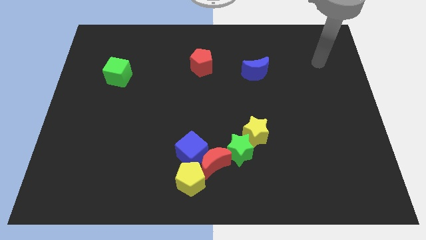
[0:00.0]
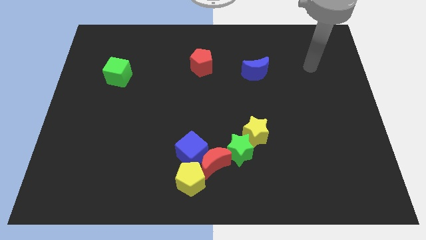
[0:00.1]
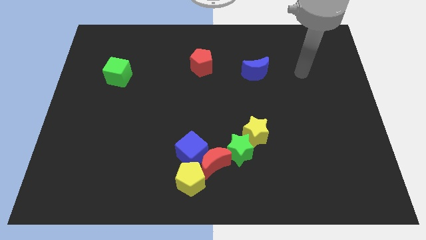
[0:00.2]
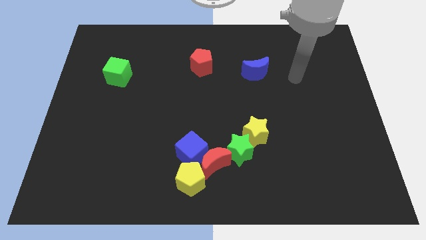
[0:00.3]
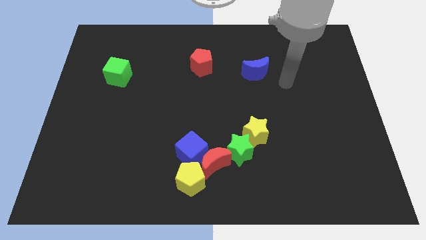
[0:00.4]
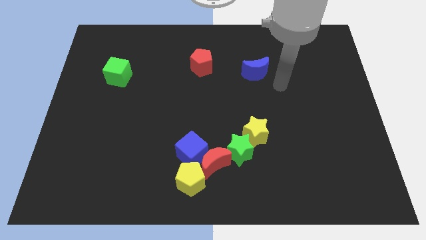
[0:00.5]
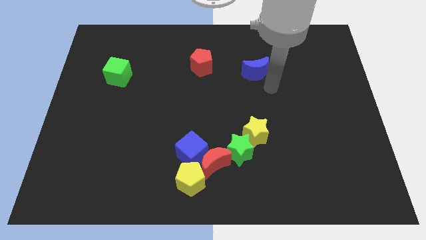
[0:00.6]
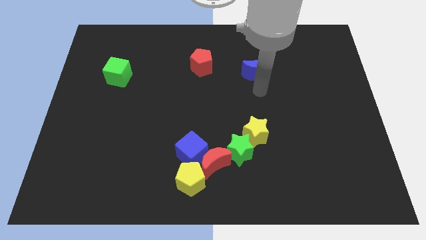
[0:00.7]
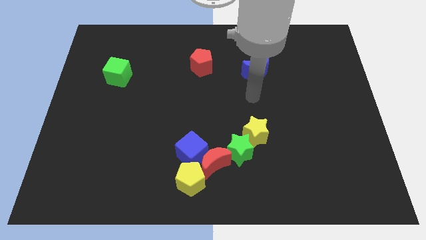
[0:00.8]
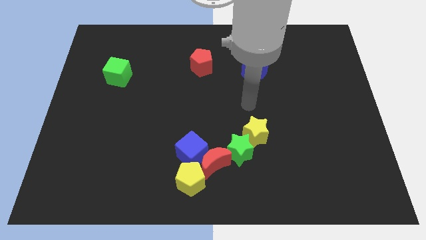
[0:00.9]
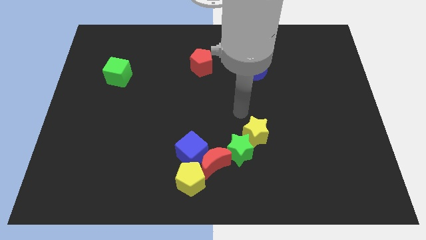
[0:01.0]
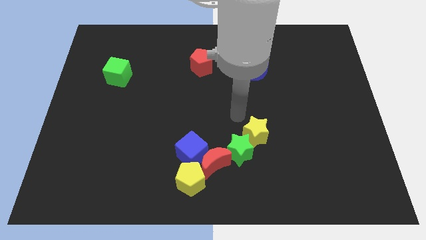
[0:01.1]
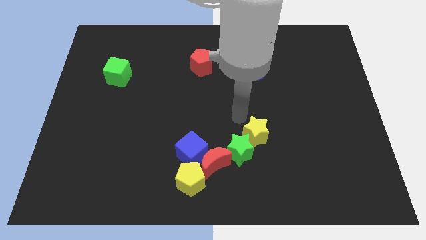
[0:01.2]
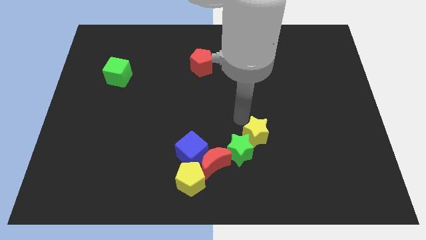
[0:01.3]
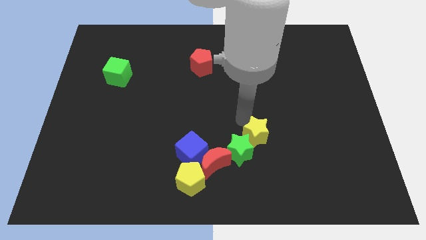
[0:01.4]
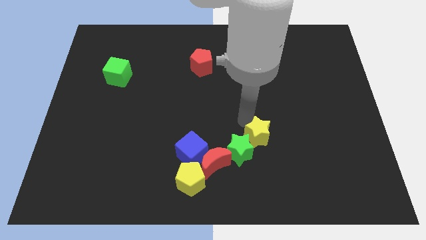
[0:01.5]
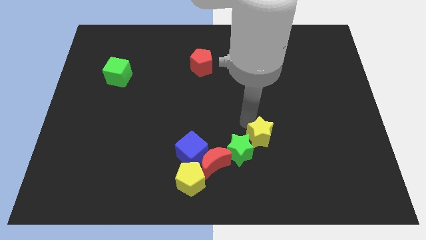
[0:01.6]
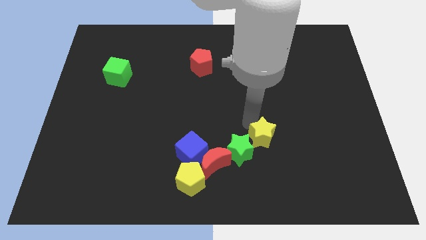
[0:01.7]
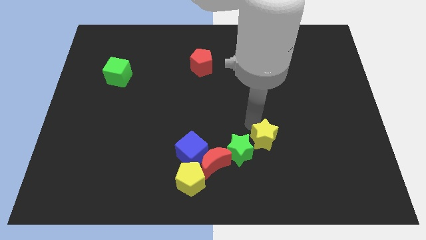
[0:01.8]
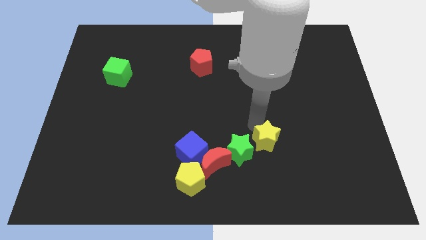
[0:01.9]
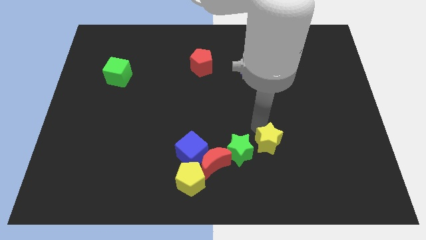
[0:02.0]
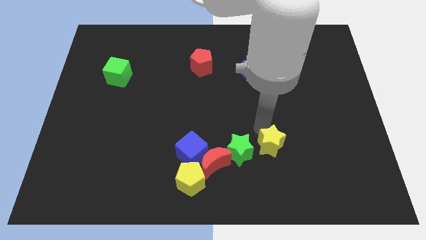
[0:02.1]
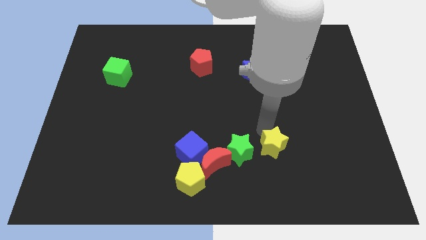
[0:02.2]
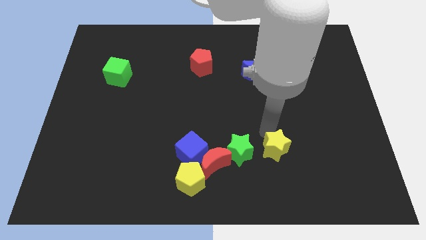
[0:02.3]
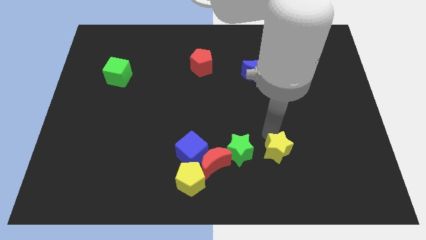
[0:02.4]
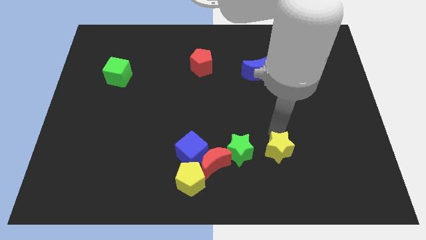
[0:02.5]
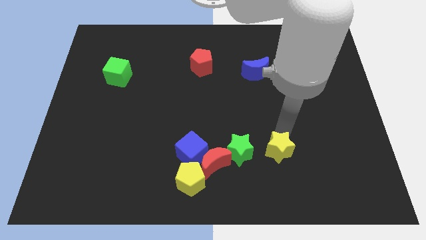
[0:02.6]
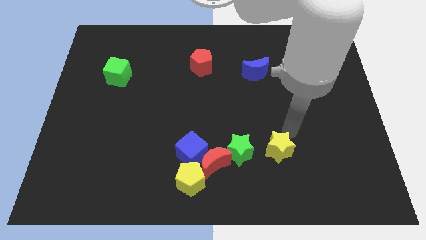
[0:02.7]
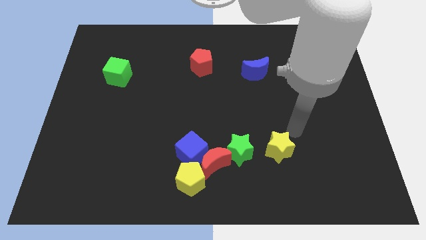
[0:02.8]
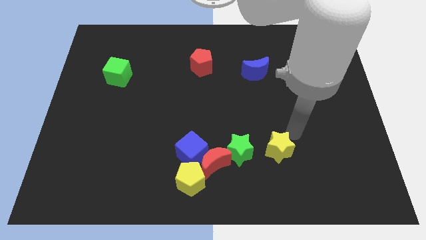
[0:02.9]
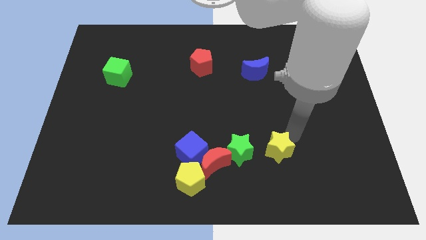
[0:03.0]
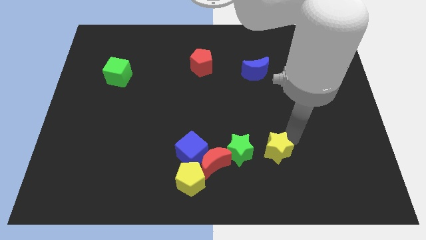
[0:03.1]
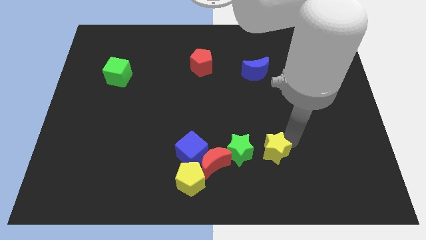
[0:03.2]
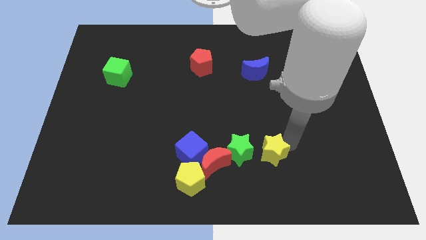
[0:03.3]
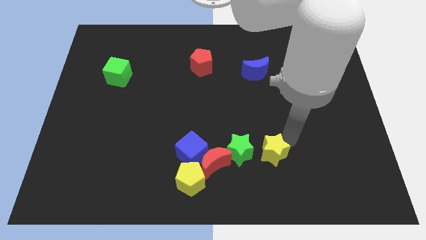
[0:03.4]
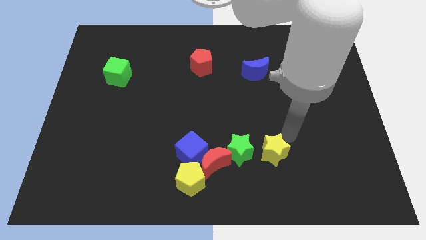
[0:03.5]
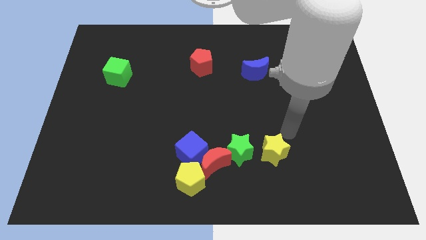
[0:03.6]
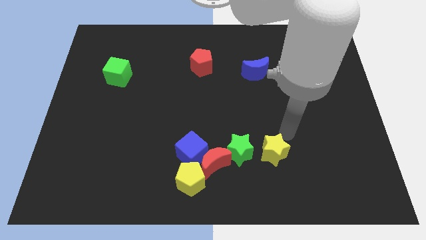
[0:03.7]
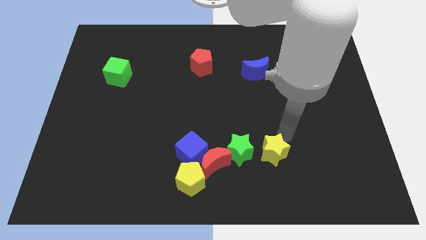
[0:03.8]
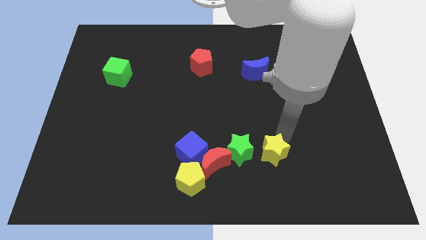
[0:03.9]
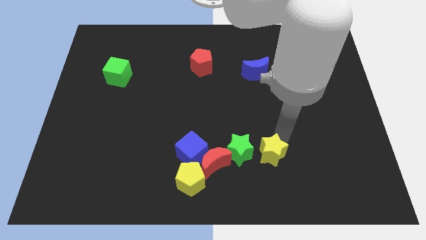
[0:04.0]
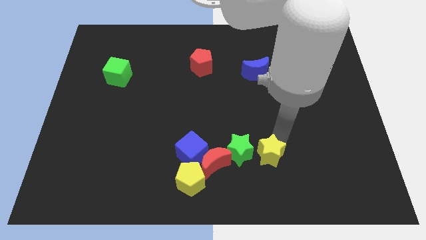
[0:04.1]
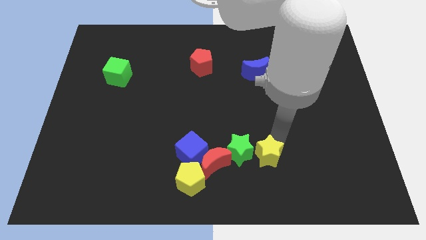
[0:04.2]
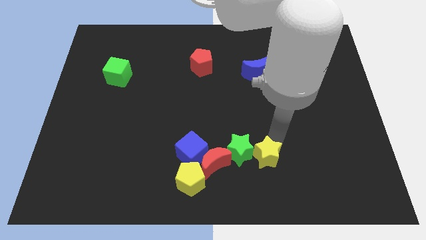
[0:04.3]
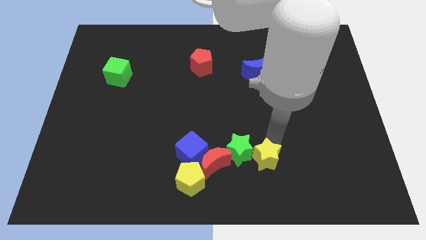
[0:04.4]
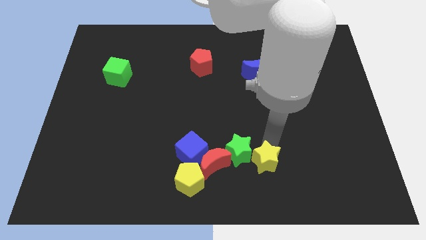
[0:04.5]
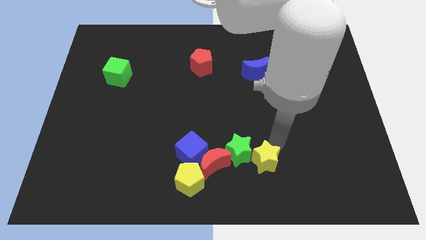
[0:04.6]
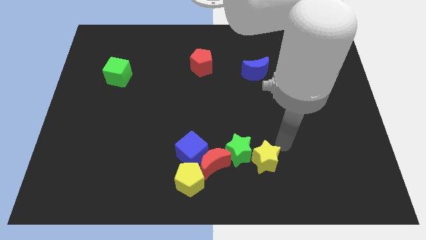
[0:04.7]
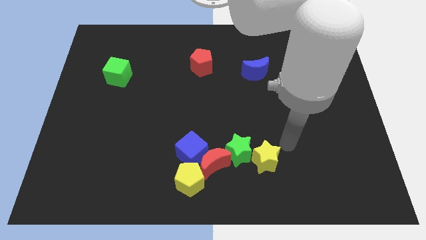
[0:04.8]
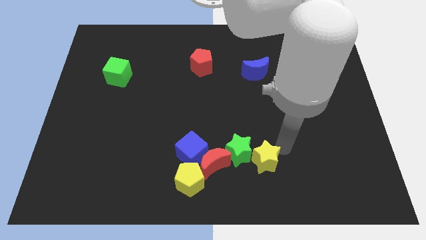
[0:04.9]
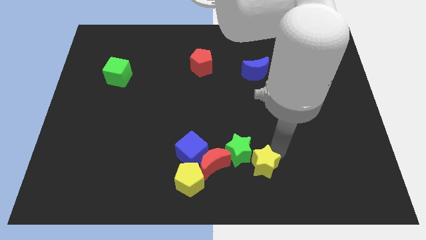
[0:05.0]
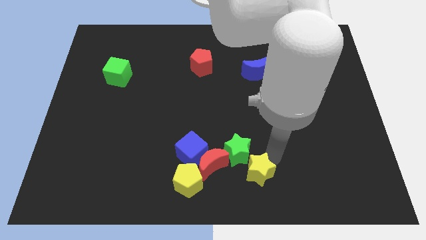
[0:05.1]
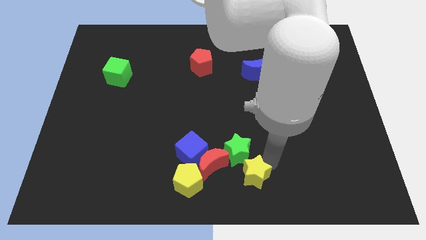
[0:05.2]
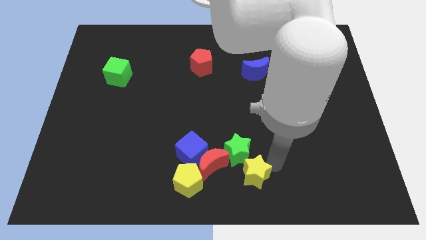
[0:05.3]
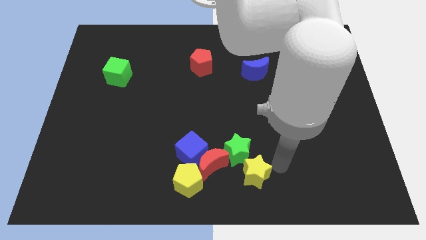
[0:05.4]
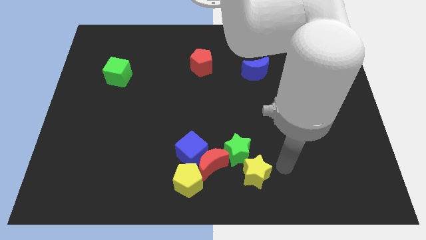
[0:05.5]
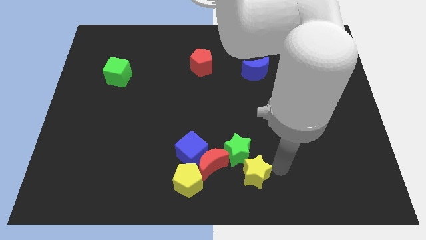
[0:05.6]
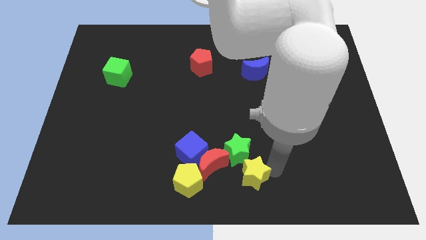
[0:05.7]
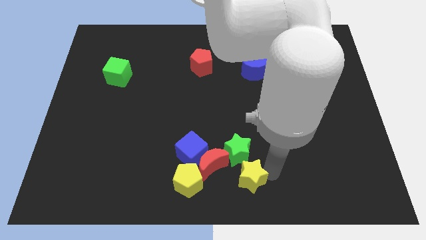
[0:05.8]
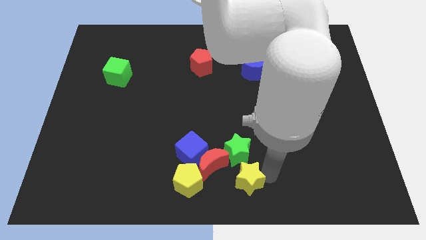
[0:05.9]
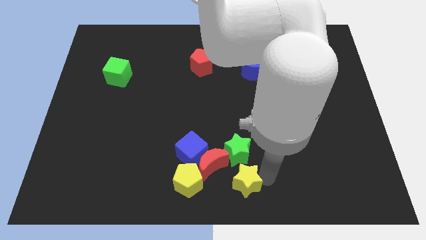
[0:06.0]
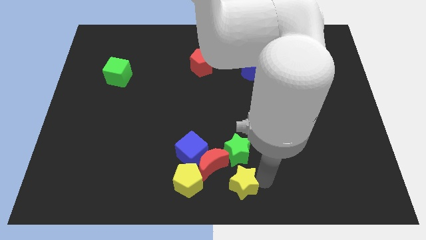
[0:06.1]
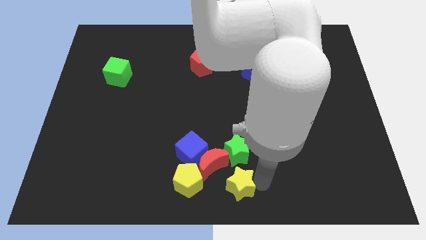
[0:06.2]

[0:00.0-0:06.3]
move the yellow star diagonally down and to the right of the blue cube

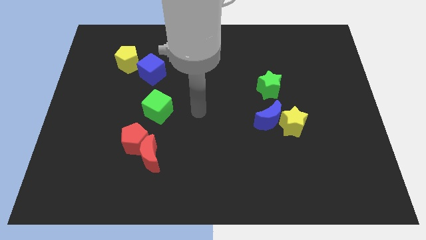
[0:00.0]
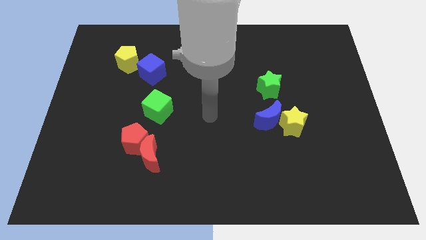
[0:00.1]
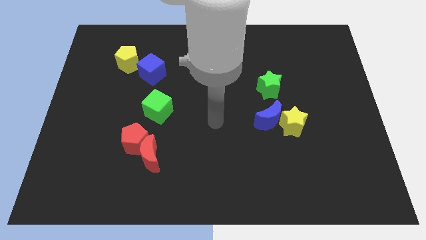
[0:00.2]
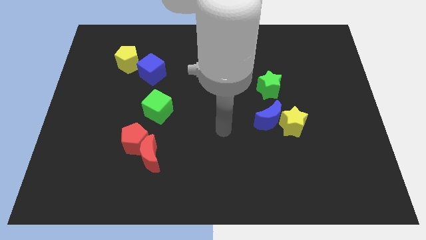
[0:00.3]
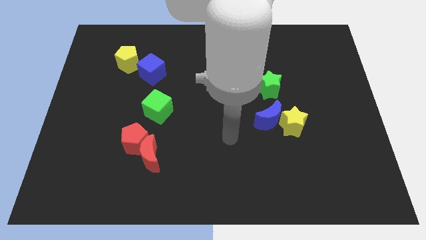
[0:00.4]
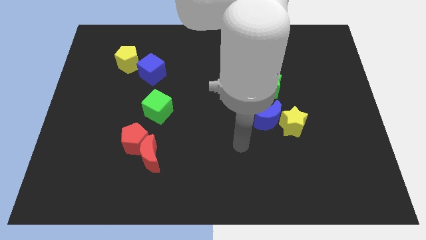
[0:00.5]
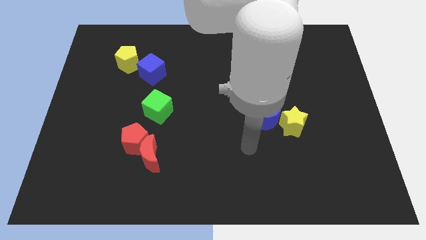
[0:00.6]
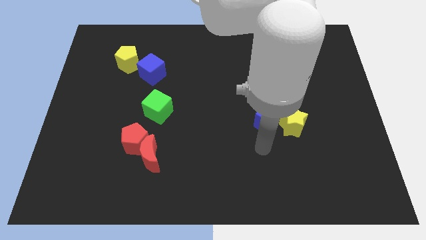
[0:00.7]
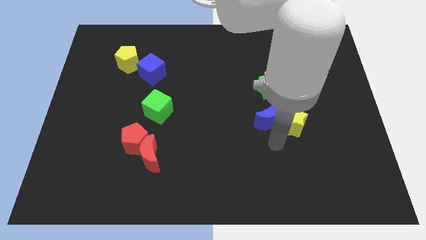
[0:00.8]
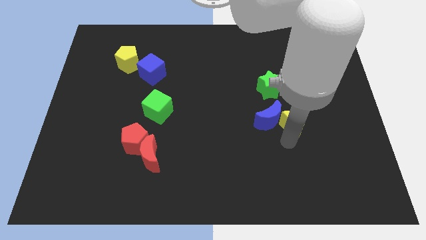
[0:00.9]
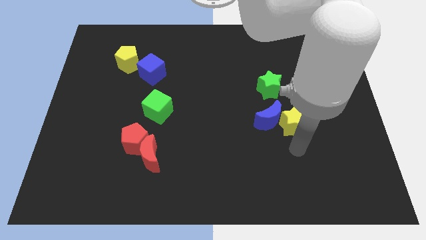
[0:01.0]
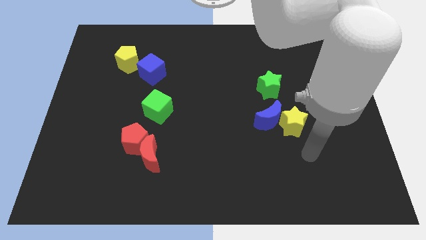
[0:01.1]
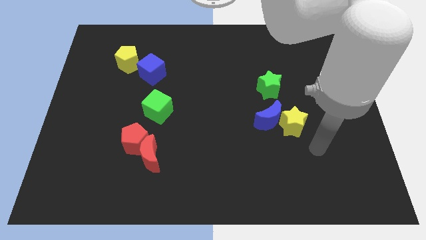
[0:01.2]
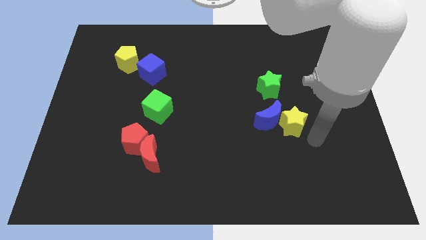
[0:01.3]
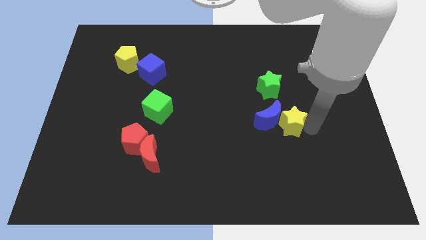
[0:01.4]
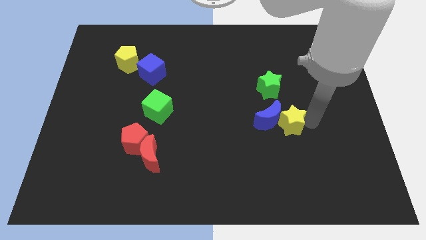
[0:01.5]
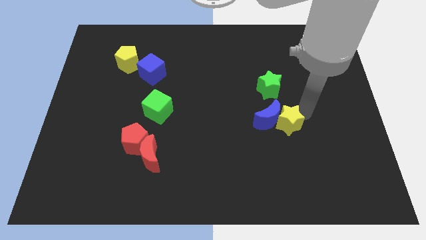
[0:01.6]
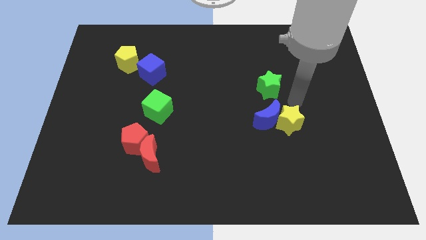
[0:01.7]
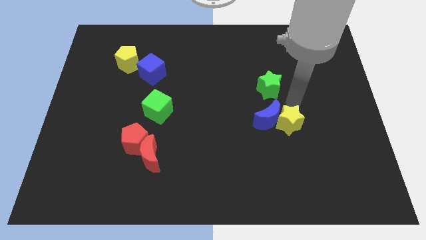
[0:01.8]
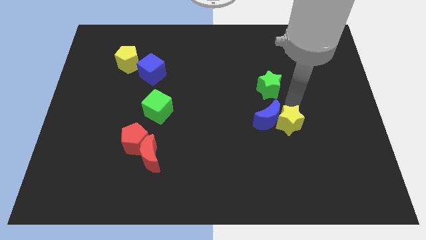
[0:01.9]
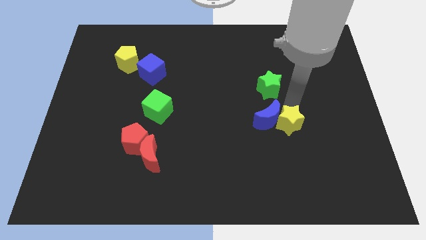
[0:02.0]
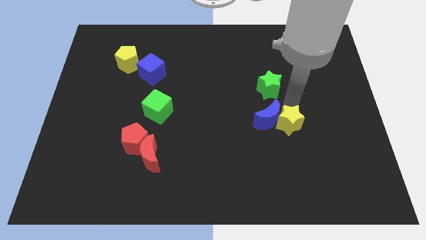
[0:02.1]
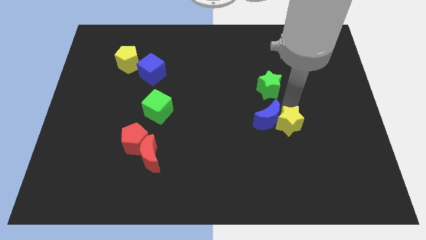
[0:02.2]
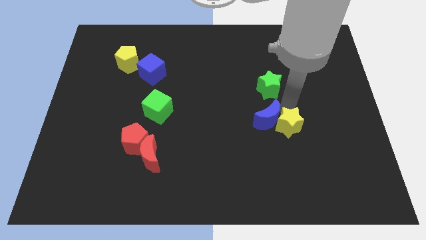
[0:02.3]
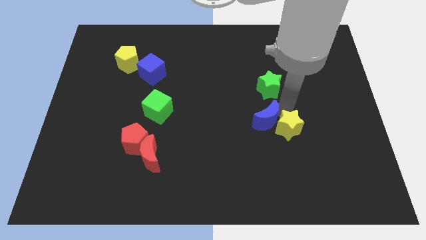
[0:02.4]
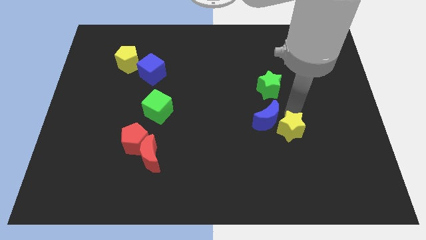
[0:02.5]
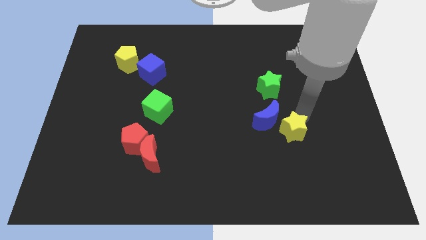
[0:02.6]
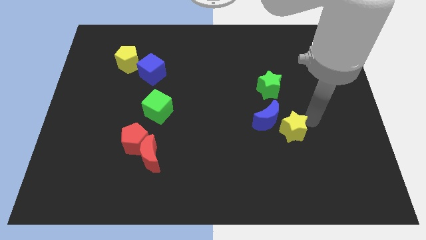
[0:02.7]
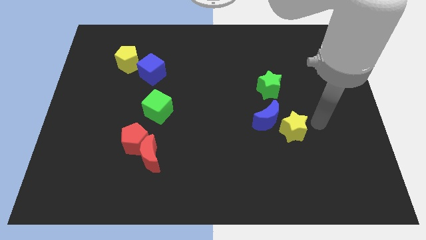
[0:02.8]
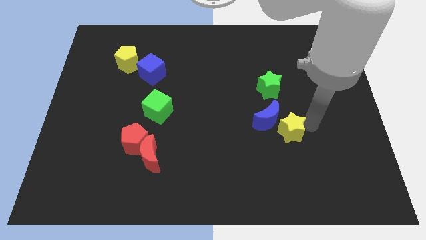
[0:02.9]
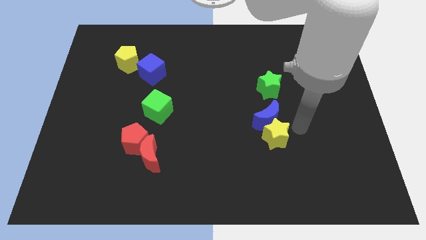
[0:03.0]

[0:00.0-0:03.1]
slide the yellow star to the bottom left of the blue moon
